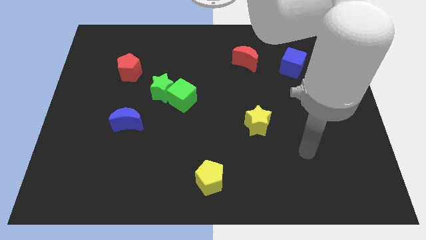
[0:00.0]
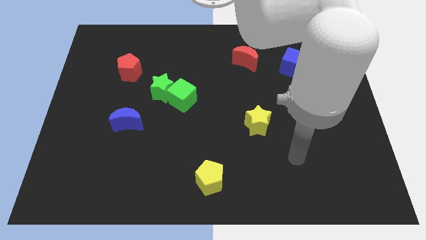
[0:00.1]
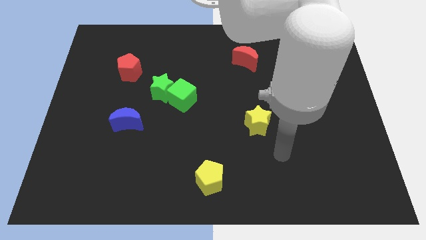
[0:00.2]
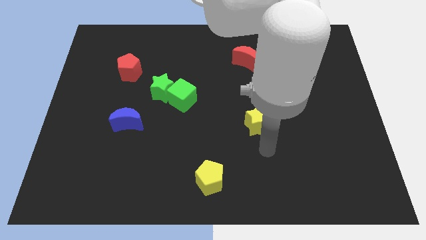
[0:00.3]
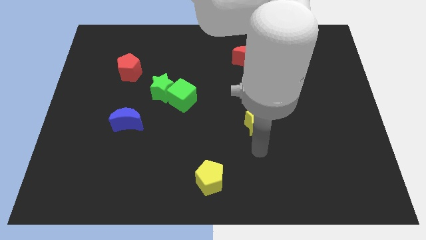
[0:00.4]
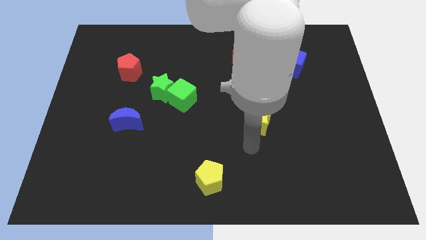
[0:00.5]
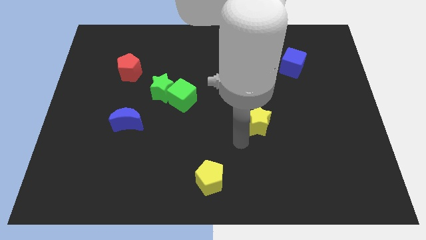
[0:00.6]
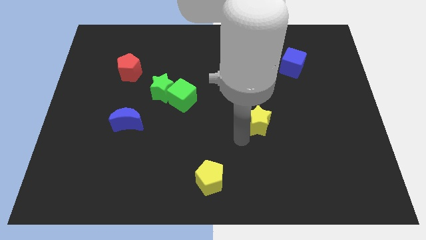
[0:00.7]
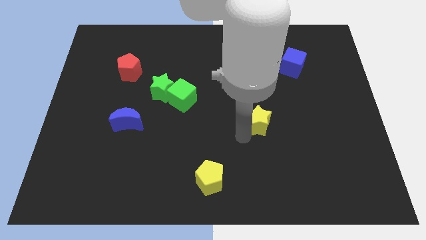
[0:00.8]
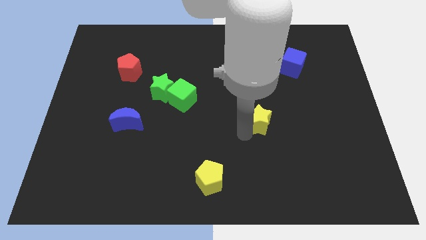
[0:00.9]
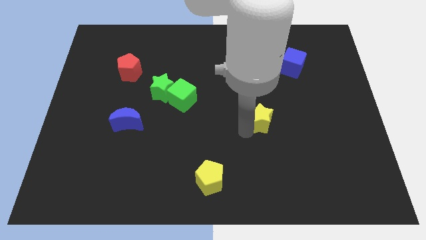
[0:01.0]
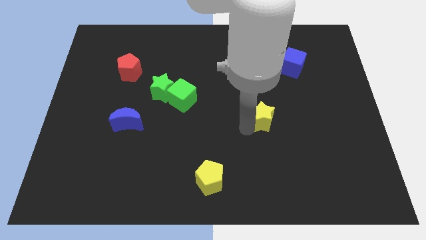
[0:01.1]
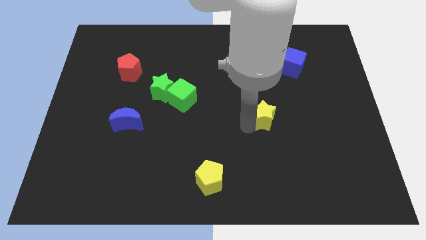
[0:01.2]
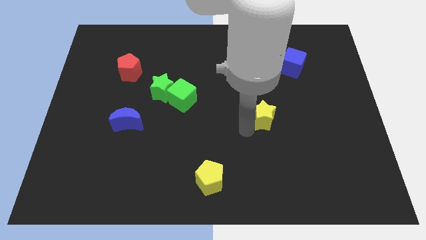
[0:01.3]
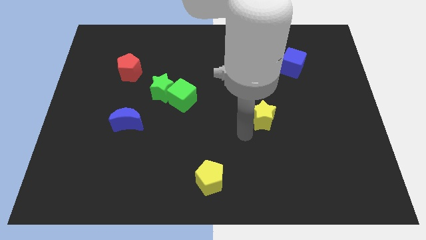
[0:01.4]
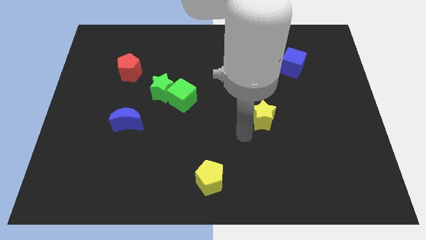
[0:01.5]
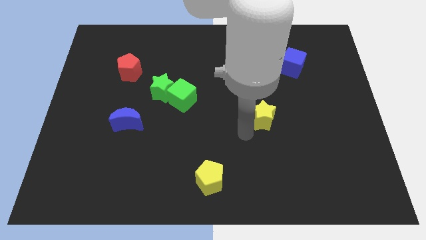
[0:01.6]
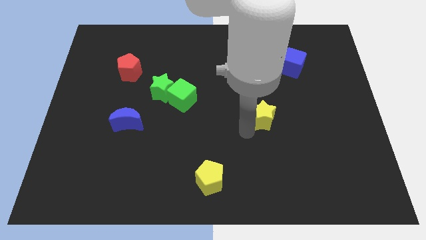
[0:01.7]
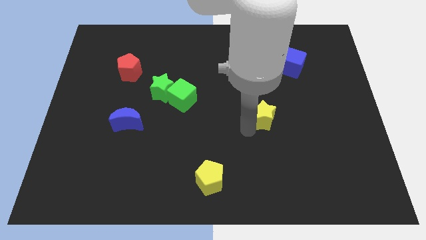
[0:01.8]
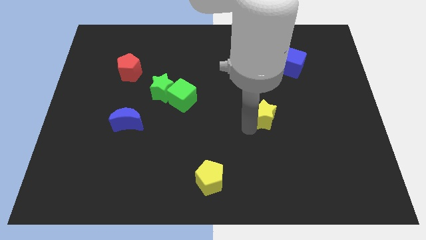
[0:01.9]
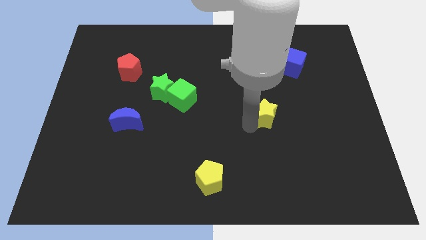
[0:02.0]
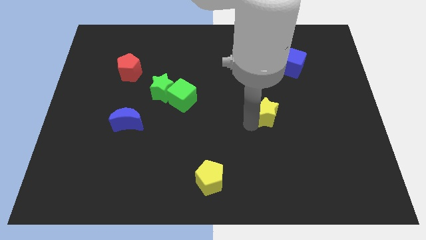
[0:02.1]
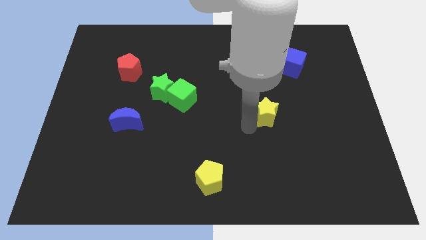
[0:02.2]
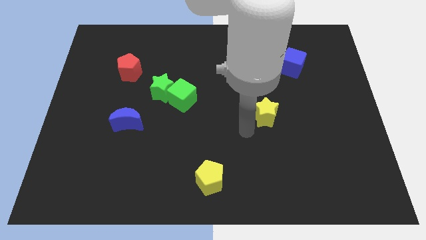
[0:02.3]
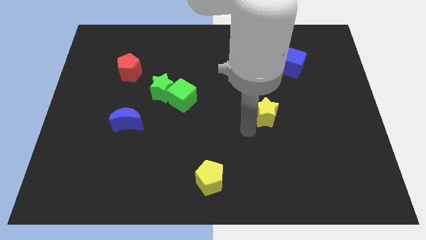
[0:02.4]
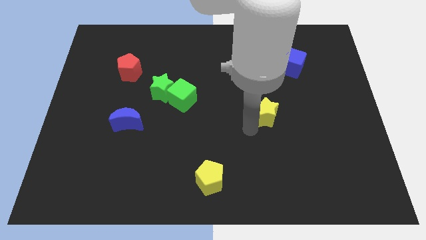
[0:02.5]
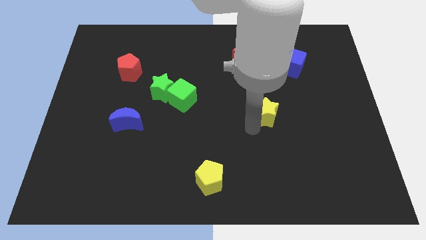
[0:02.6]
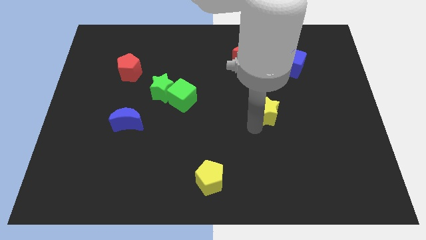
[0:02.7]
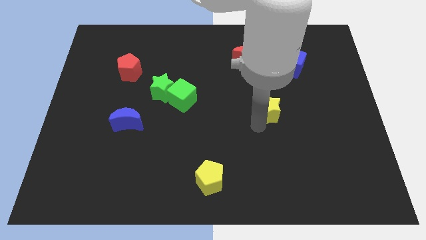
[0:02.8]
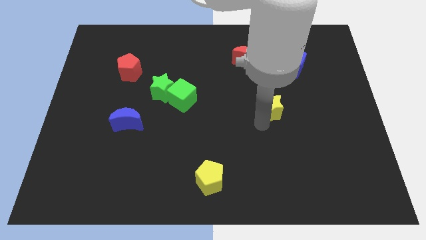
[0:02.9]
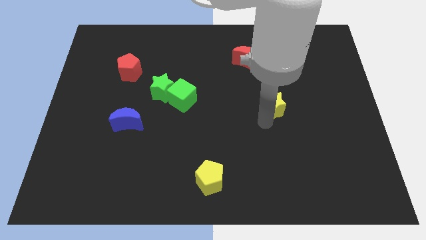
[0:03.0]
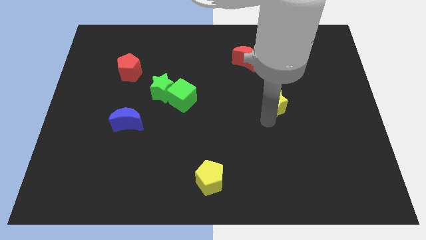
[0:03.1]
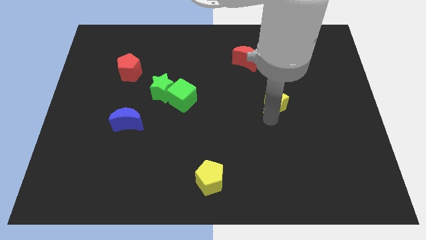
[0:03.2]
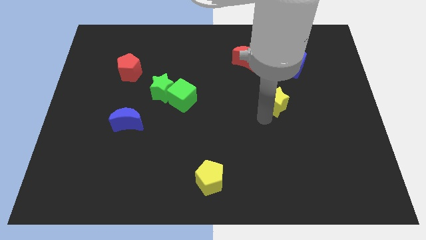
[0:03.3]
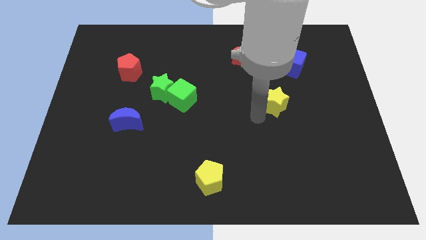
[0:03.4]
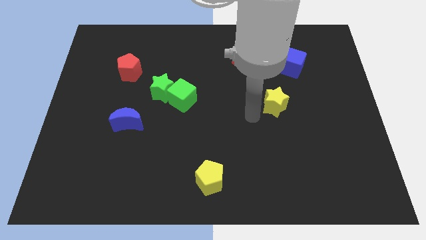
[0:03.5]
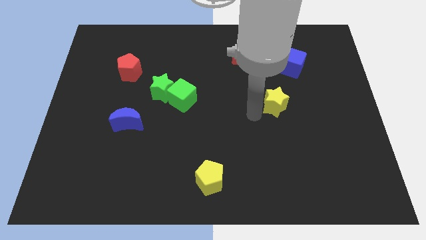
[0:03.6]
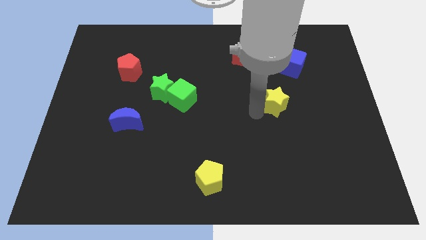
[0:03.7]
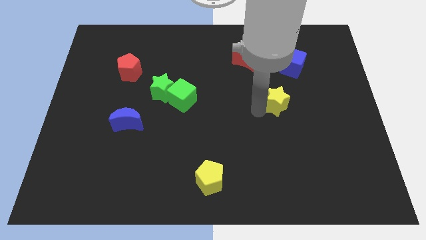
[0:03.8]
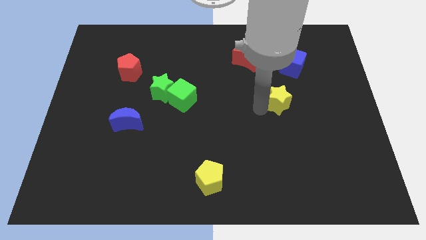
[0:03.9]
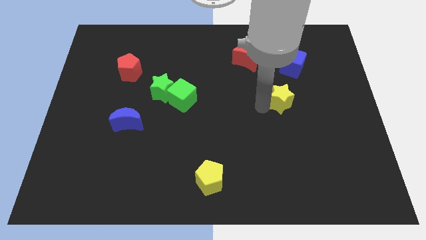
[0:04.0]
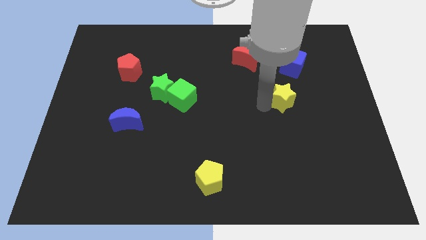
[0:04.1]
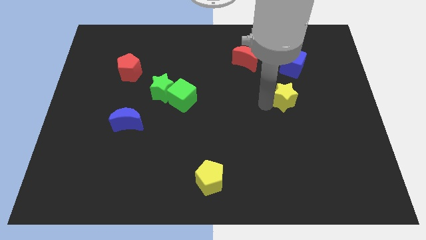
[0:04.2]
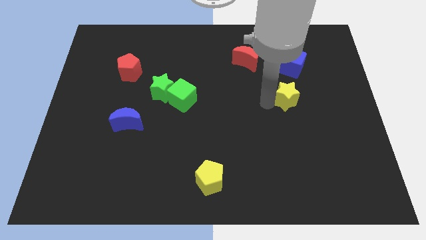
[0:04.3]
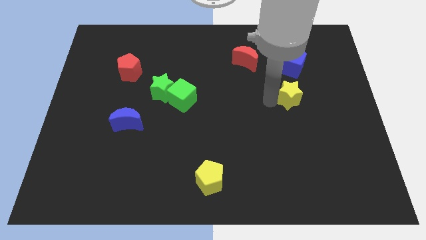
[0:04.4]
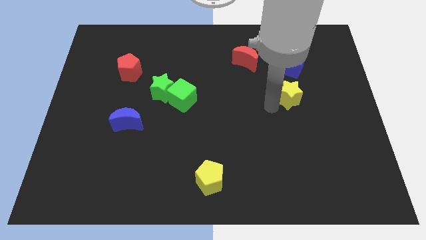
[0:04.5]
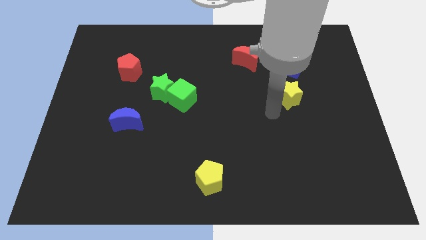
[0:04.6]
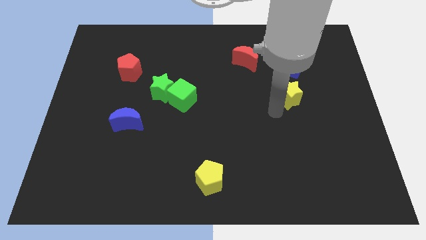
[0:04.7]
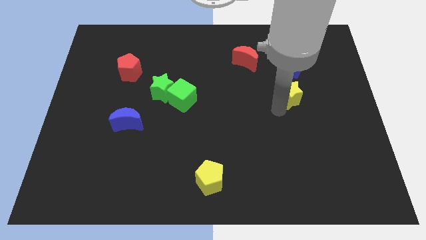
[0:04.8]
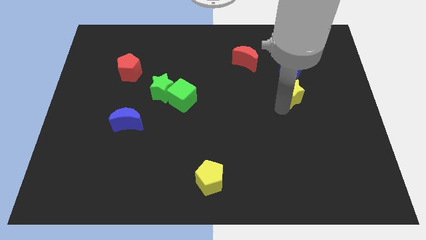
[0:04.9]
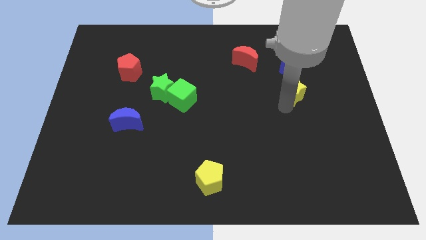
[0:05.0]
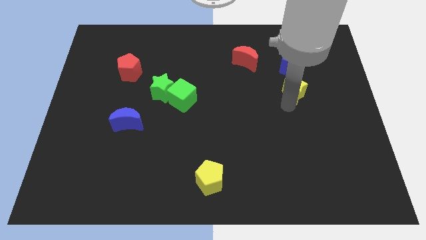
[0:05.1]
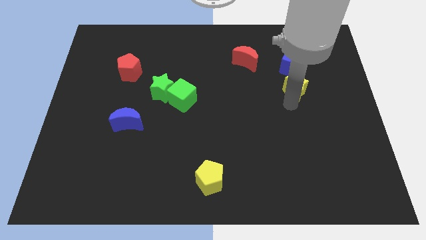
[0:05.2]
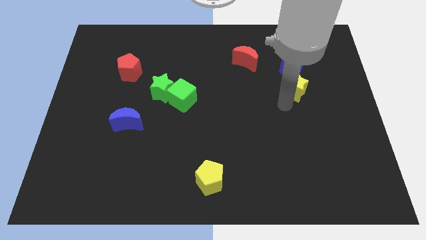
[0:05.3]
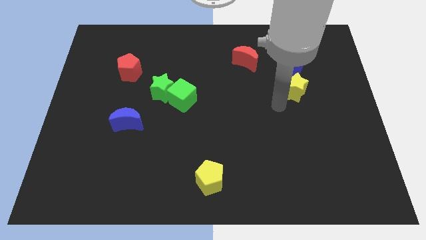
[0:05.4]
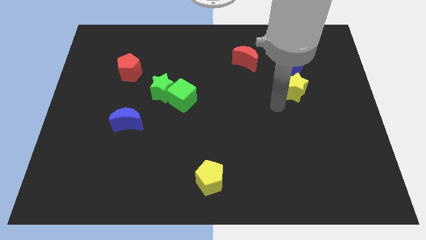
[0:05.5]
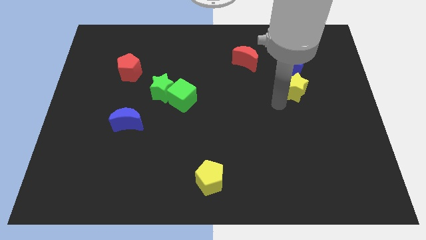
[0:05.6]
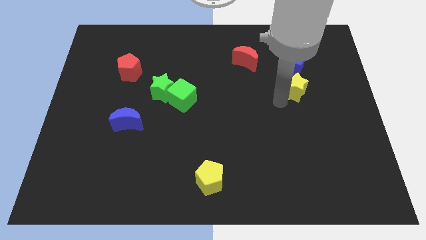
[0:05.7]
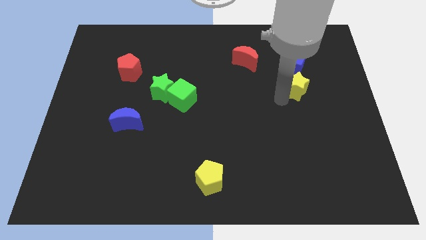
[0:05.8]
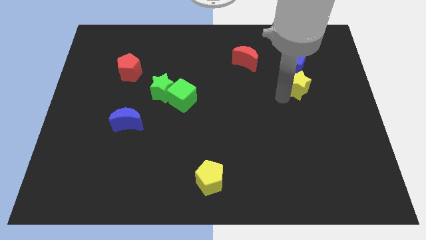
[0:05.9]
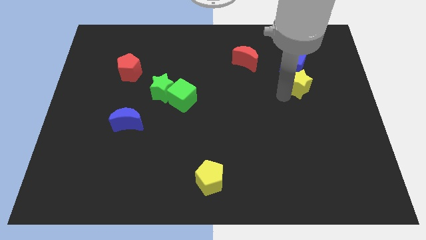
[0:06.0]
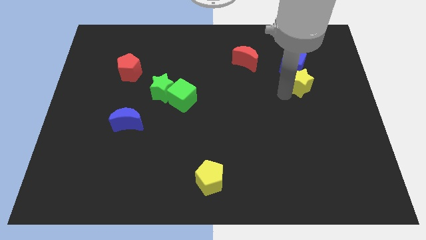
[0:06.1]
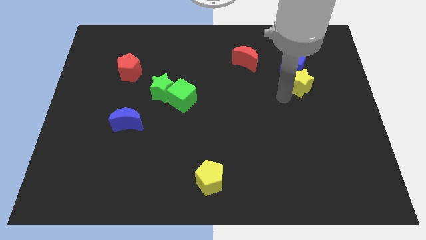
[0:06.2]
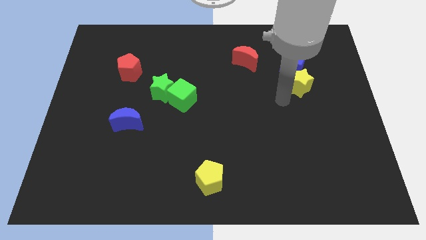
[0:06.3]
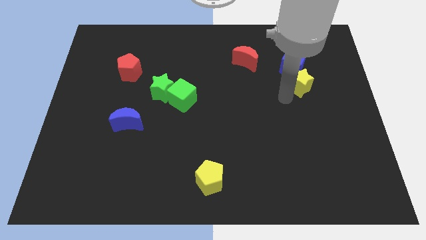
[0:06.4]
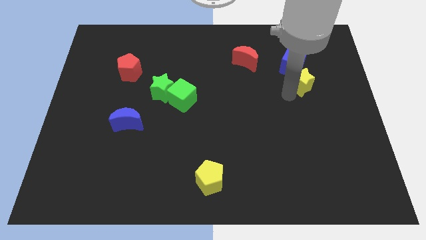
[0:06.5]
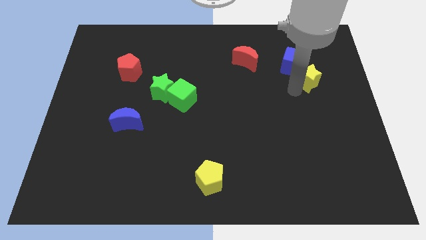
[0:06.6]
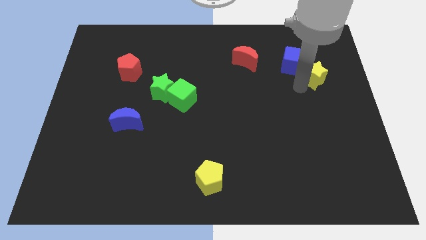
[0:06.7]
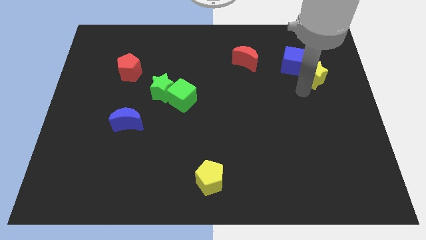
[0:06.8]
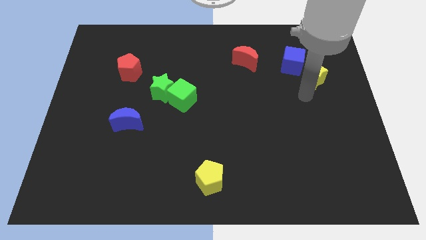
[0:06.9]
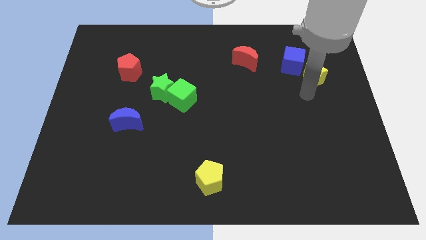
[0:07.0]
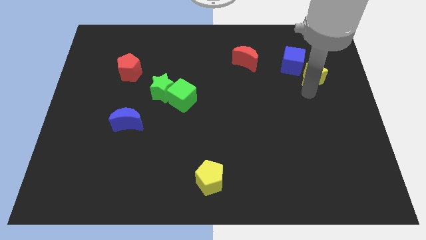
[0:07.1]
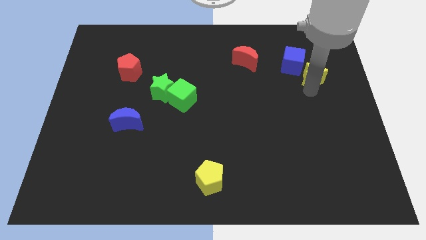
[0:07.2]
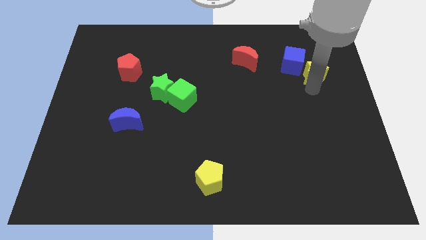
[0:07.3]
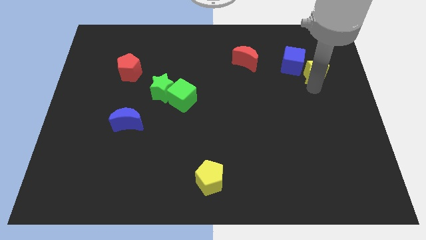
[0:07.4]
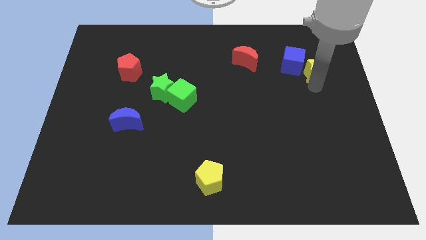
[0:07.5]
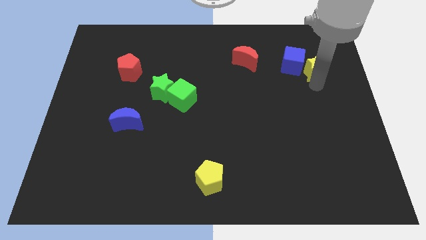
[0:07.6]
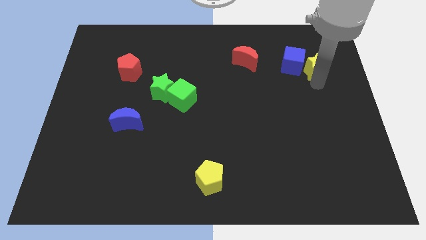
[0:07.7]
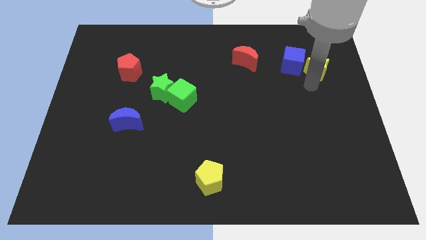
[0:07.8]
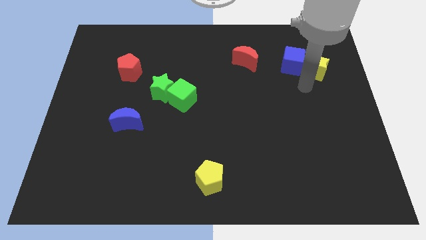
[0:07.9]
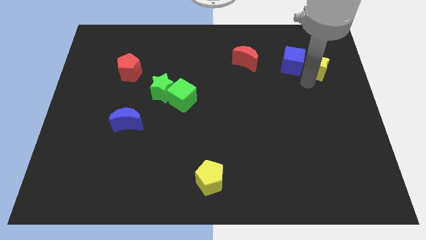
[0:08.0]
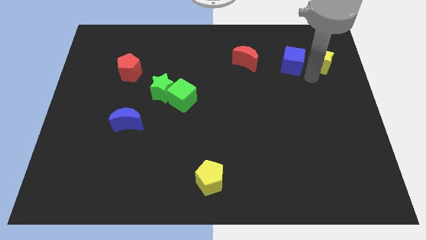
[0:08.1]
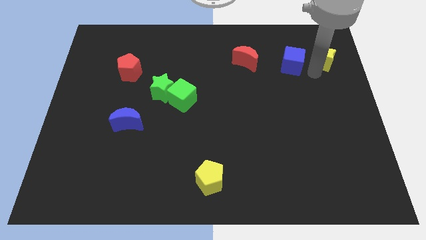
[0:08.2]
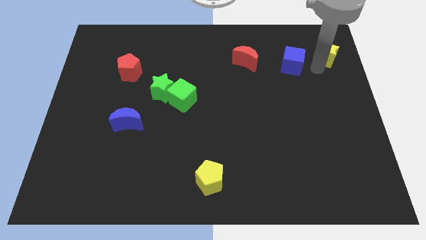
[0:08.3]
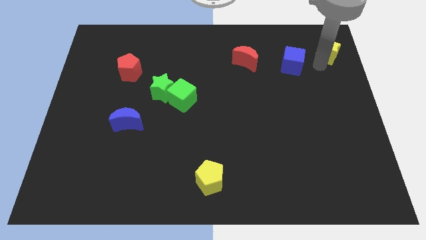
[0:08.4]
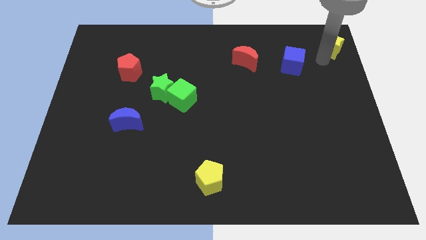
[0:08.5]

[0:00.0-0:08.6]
put the yellow star to the top right corner
